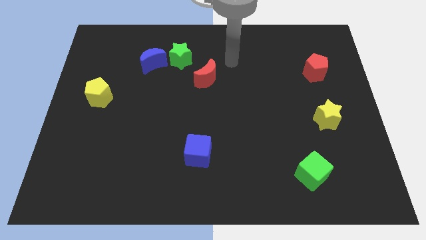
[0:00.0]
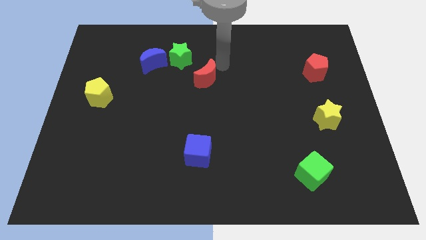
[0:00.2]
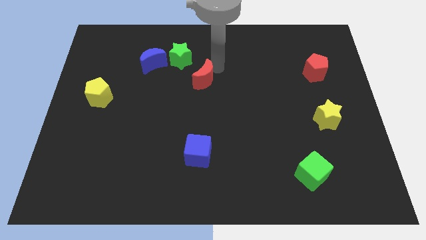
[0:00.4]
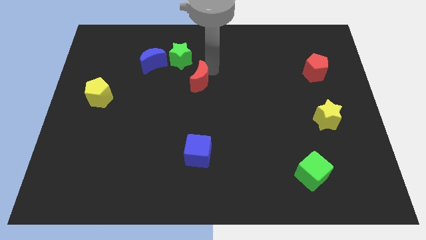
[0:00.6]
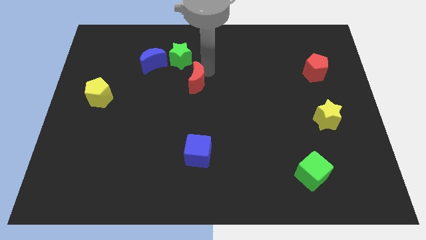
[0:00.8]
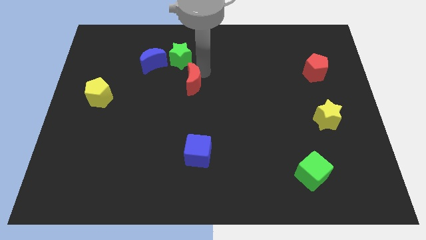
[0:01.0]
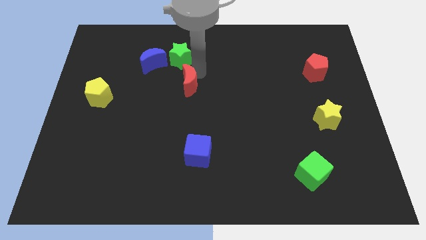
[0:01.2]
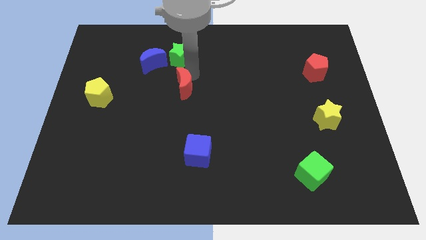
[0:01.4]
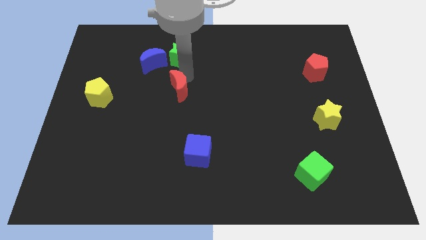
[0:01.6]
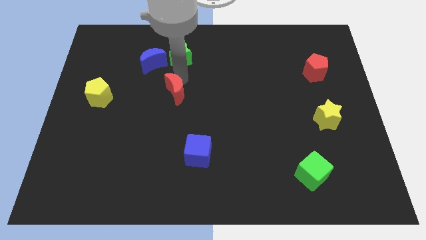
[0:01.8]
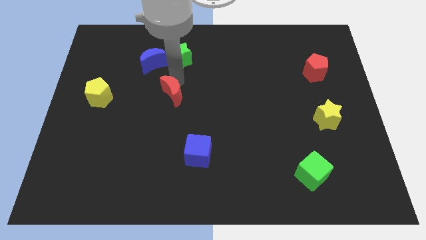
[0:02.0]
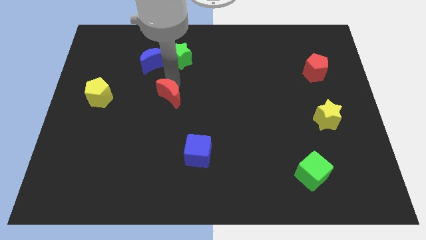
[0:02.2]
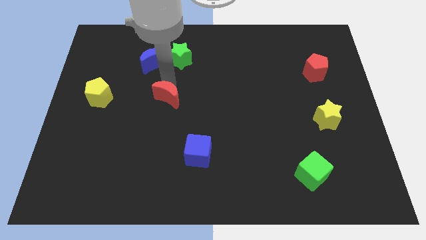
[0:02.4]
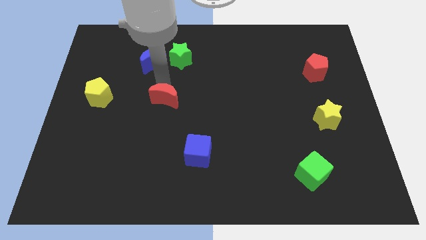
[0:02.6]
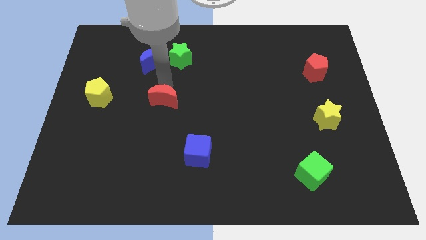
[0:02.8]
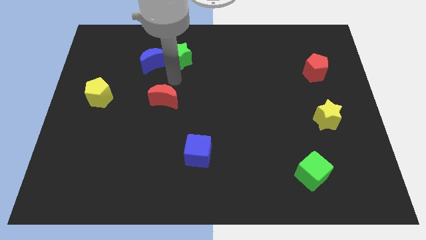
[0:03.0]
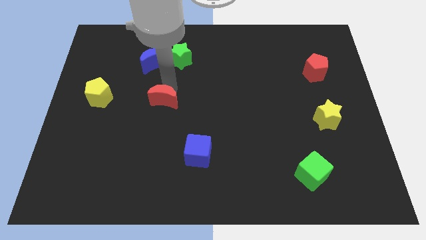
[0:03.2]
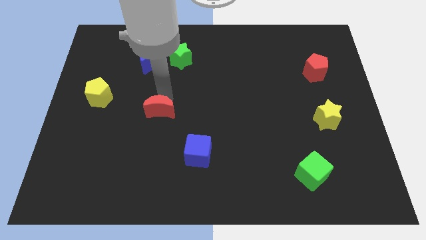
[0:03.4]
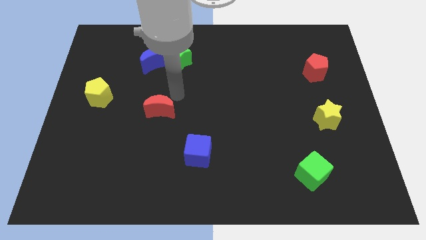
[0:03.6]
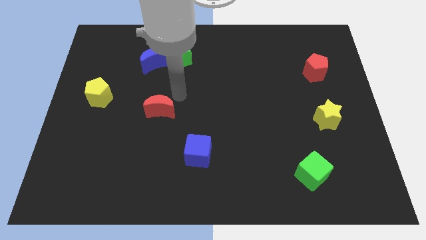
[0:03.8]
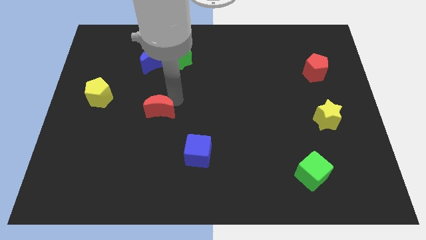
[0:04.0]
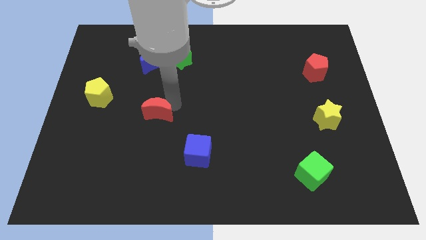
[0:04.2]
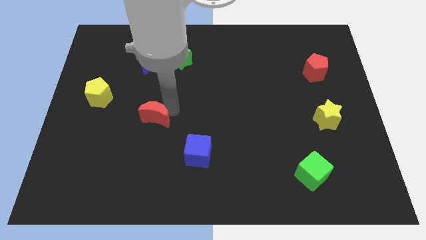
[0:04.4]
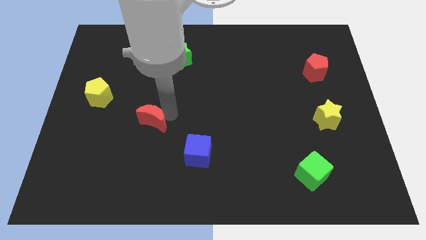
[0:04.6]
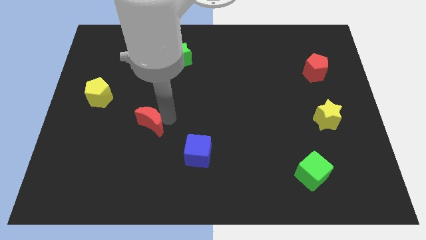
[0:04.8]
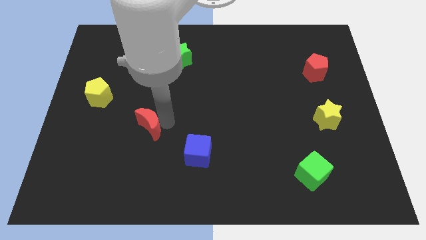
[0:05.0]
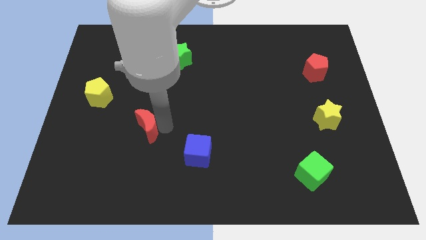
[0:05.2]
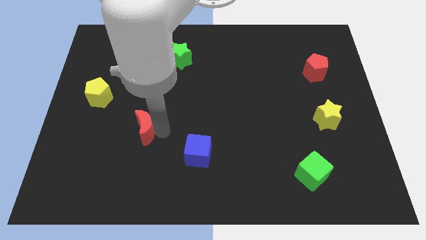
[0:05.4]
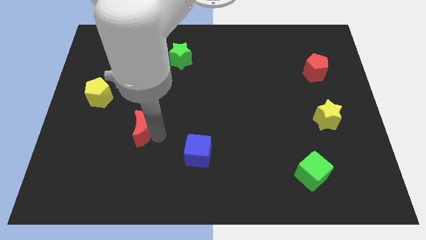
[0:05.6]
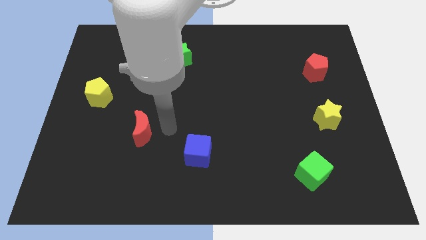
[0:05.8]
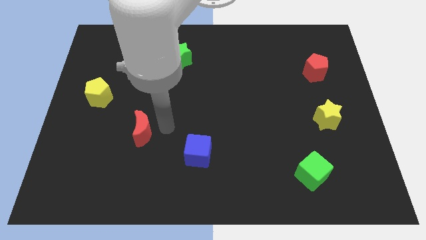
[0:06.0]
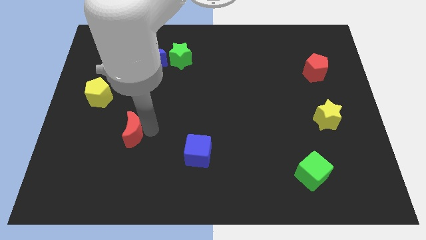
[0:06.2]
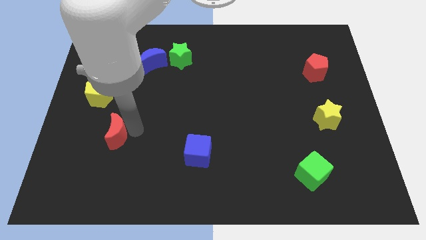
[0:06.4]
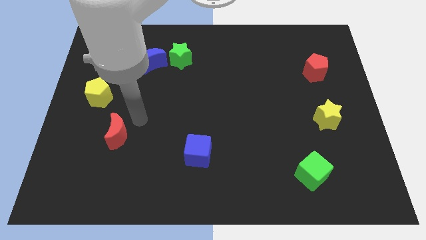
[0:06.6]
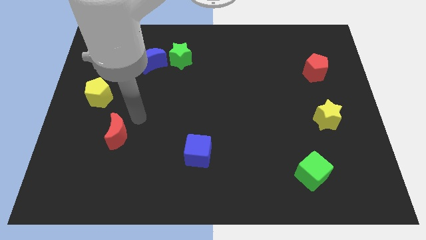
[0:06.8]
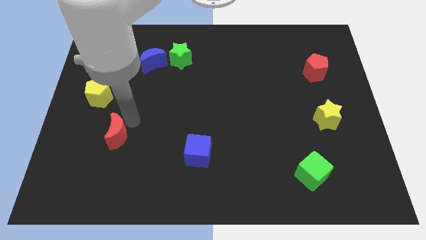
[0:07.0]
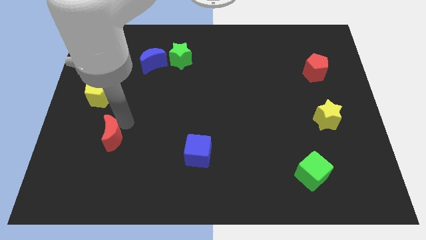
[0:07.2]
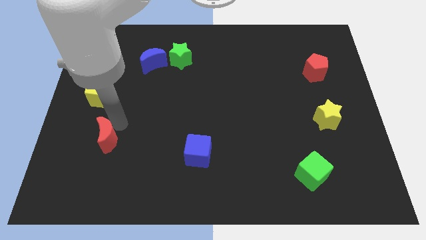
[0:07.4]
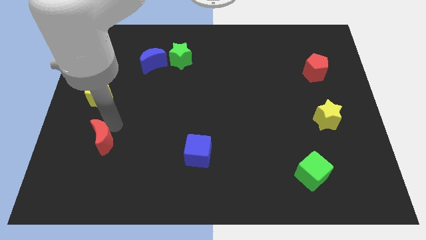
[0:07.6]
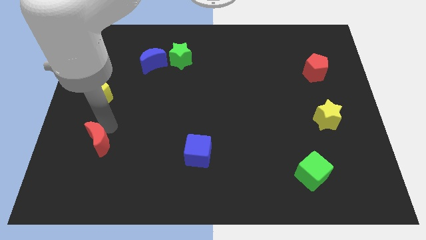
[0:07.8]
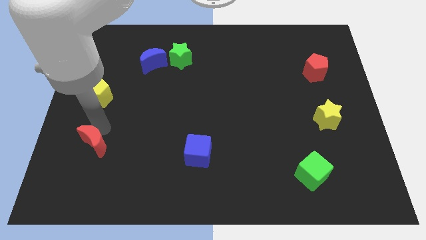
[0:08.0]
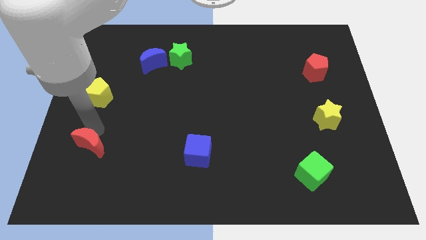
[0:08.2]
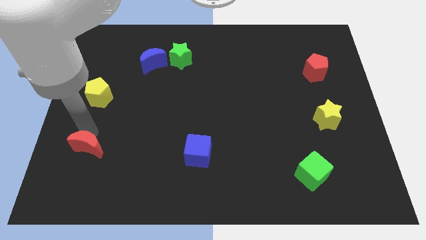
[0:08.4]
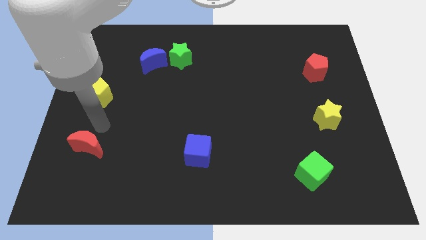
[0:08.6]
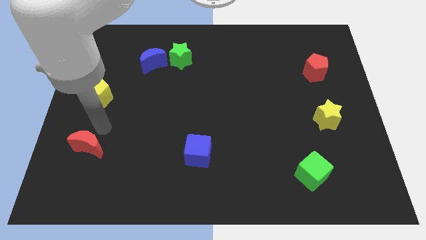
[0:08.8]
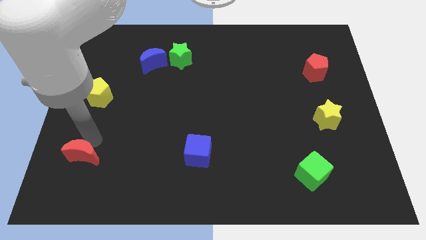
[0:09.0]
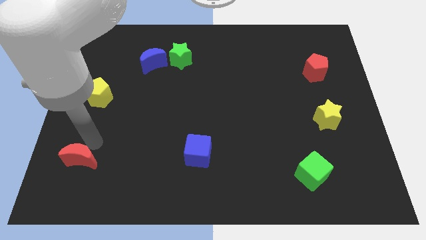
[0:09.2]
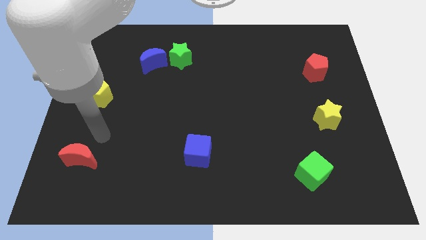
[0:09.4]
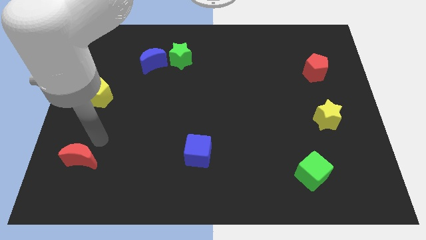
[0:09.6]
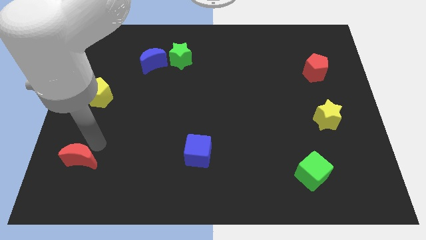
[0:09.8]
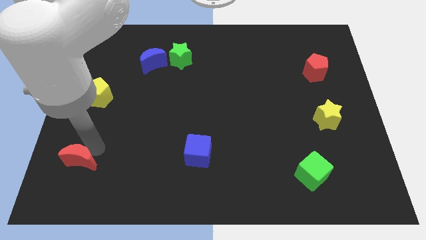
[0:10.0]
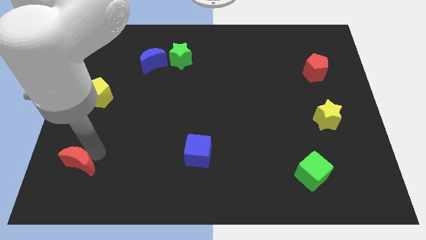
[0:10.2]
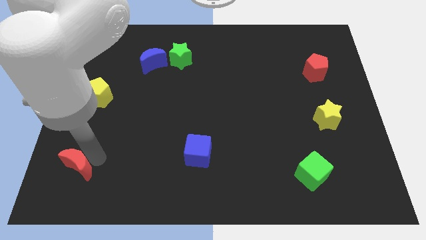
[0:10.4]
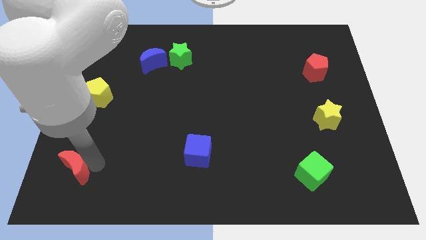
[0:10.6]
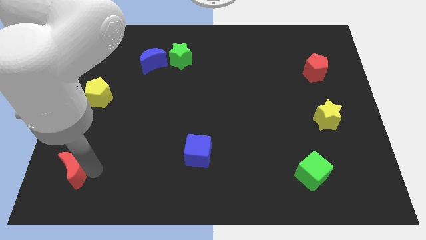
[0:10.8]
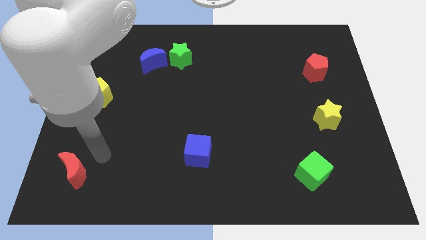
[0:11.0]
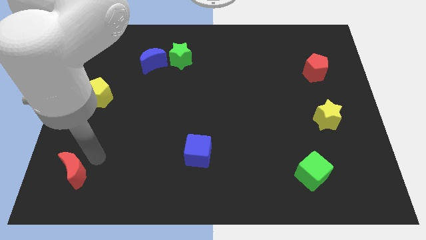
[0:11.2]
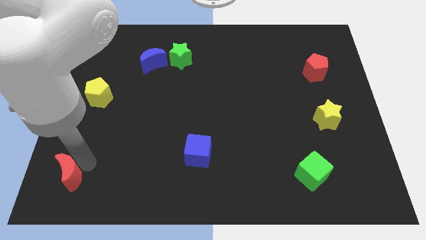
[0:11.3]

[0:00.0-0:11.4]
slide the red moon to the bottom left

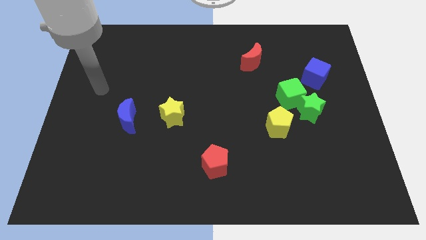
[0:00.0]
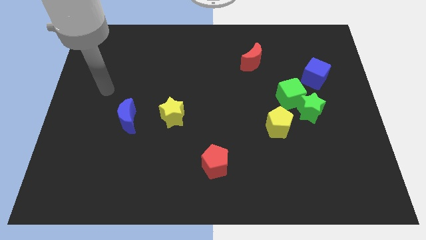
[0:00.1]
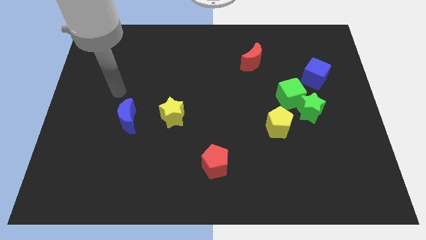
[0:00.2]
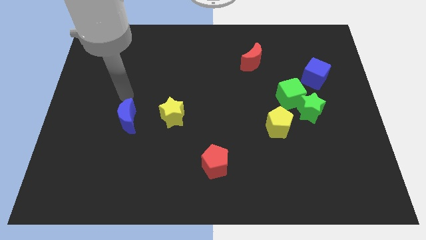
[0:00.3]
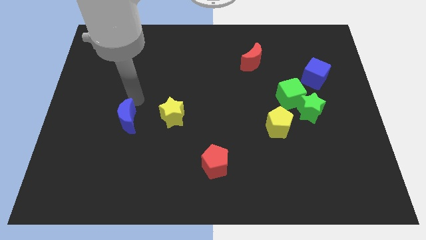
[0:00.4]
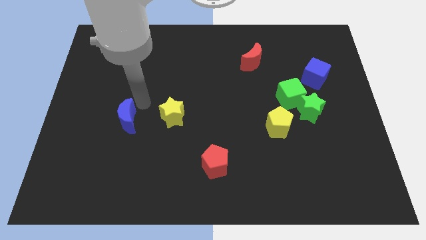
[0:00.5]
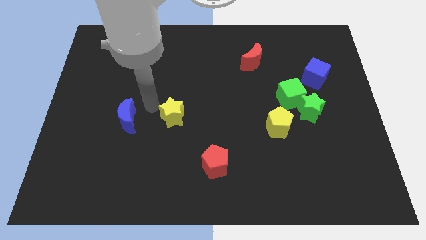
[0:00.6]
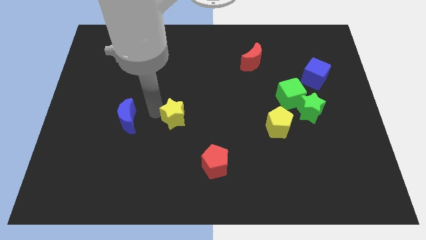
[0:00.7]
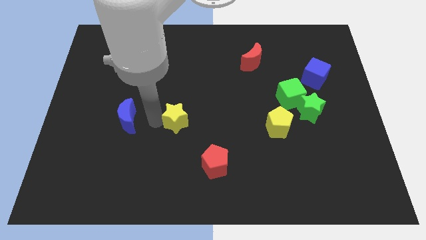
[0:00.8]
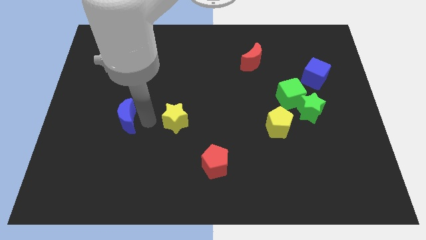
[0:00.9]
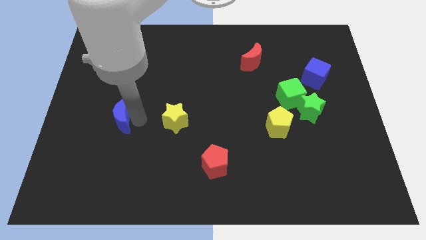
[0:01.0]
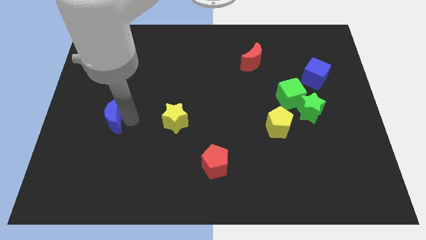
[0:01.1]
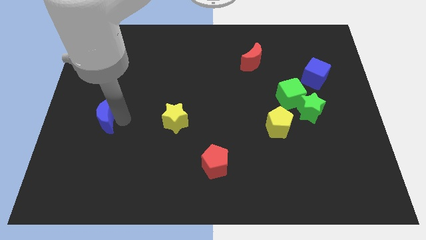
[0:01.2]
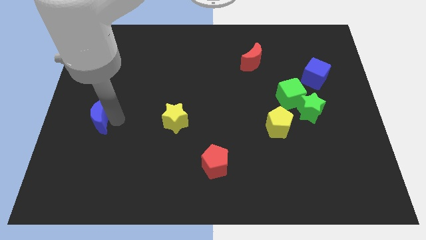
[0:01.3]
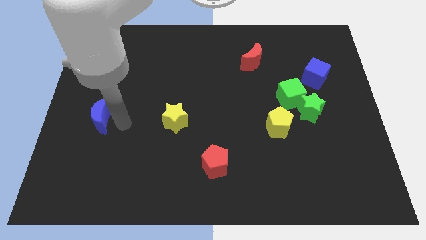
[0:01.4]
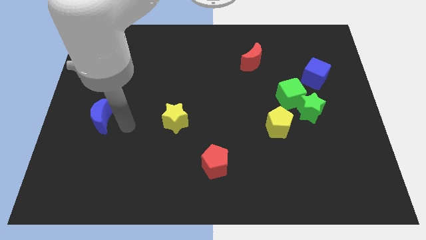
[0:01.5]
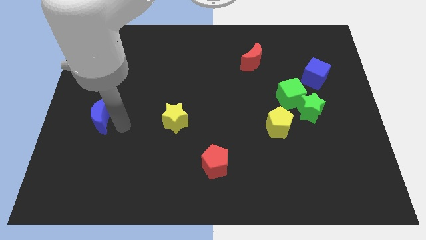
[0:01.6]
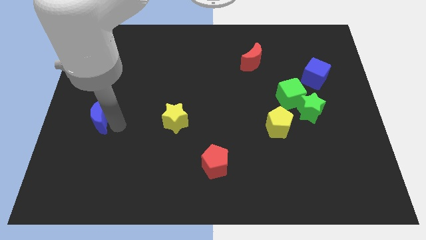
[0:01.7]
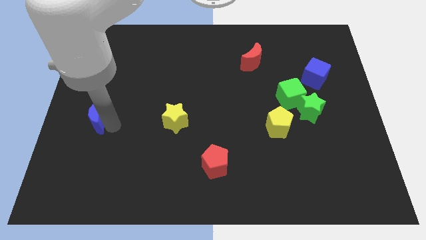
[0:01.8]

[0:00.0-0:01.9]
move the blue moon to the left side of the board
